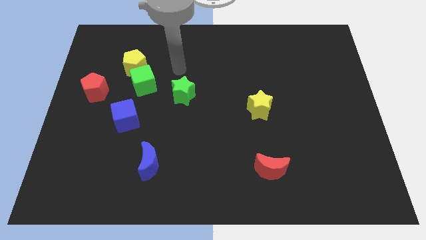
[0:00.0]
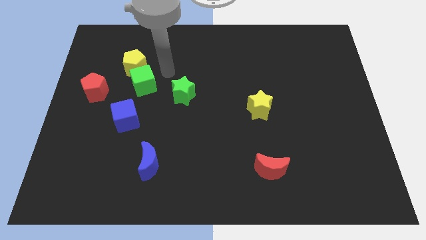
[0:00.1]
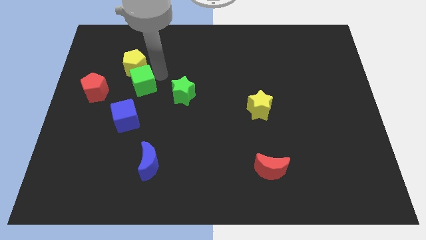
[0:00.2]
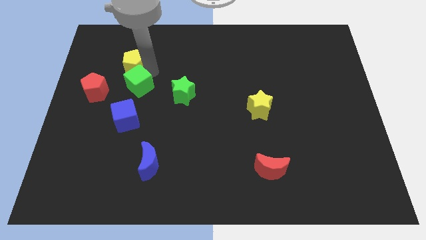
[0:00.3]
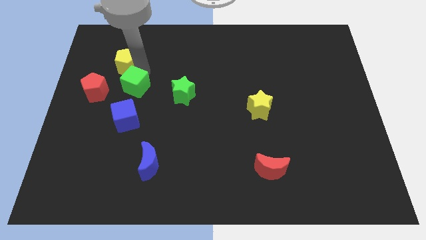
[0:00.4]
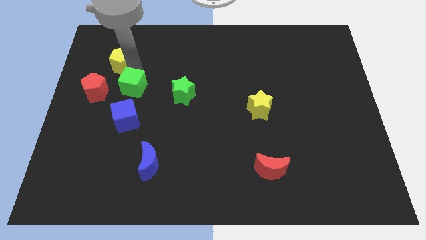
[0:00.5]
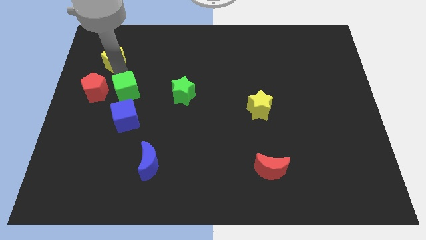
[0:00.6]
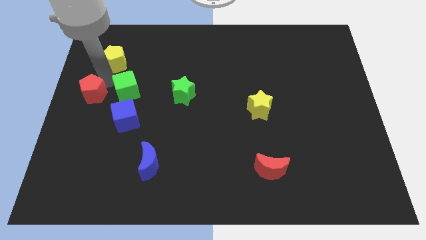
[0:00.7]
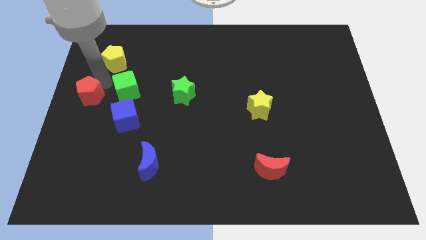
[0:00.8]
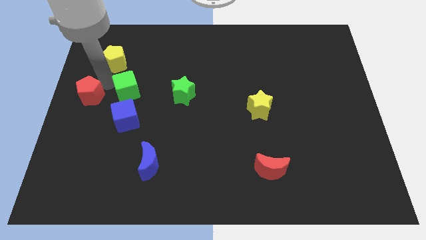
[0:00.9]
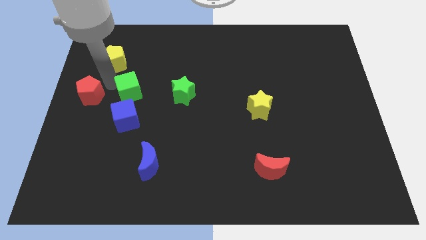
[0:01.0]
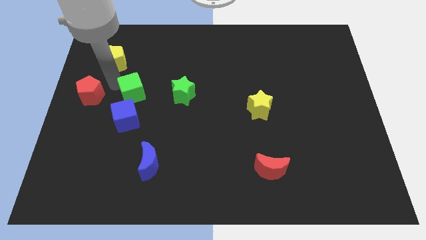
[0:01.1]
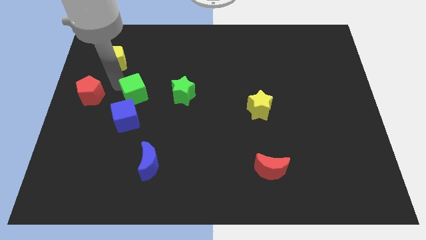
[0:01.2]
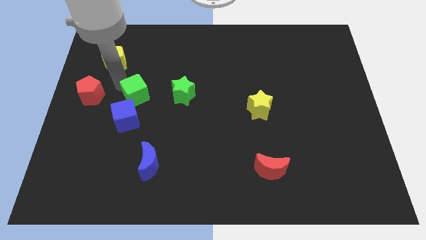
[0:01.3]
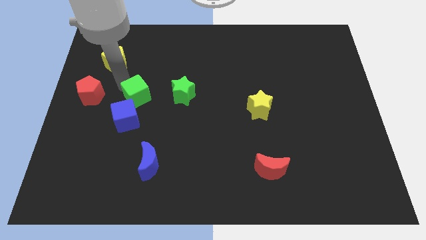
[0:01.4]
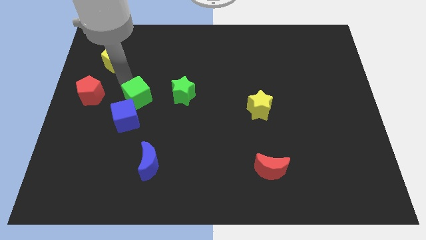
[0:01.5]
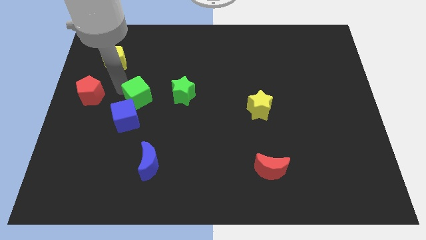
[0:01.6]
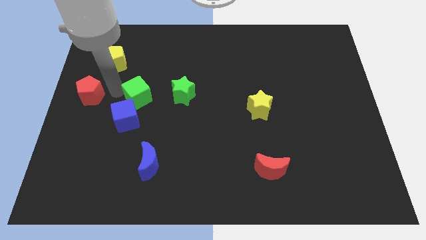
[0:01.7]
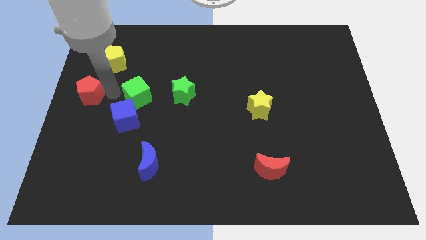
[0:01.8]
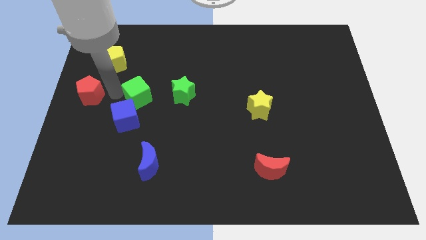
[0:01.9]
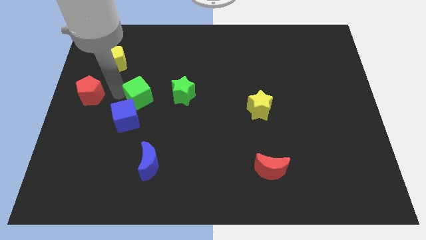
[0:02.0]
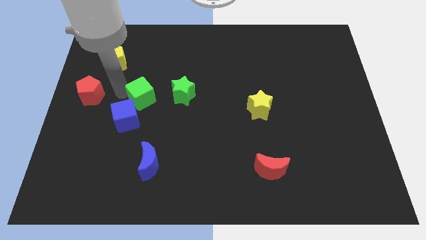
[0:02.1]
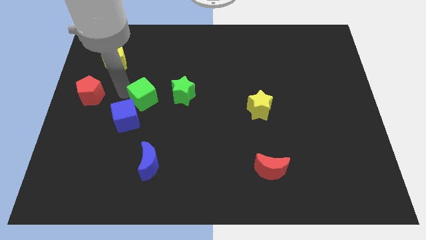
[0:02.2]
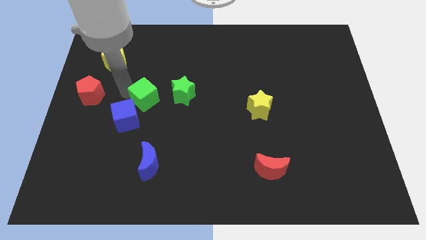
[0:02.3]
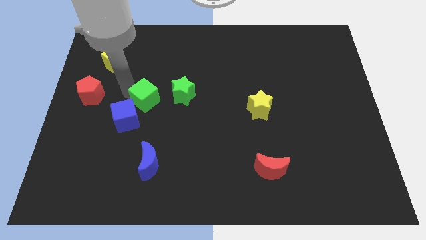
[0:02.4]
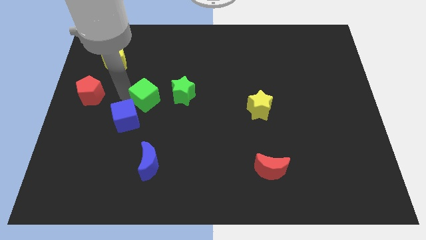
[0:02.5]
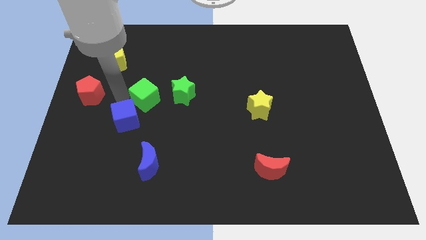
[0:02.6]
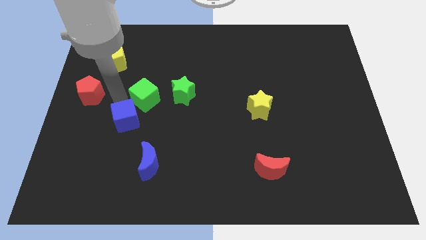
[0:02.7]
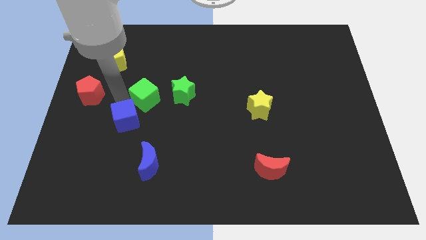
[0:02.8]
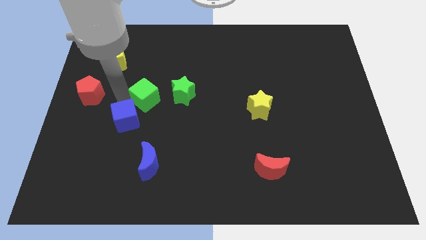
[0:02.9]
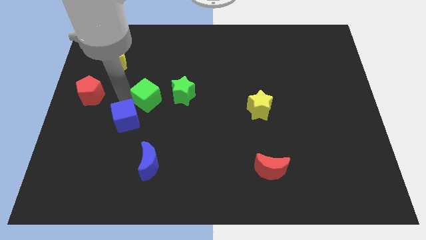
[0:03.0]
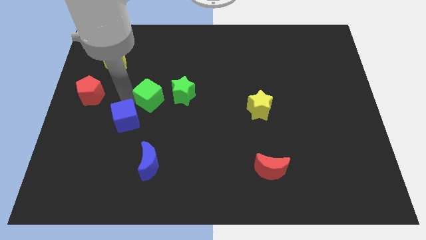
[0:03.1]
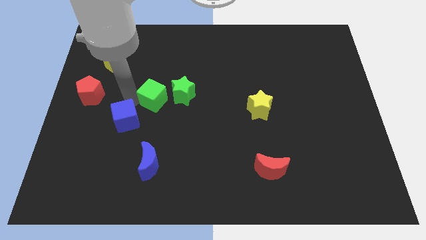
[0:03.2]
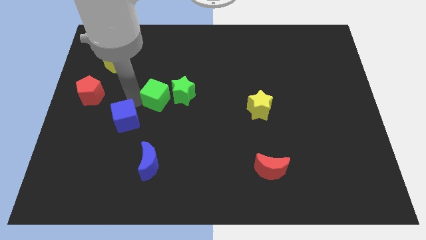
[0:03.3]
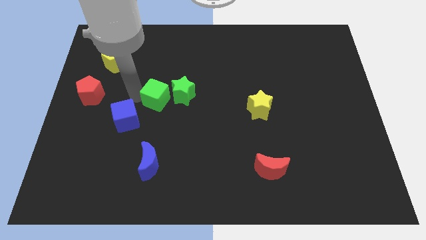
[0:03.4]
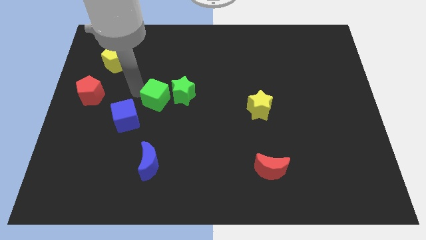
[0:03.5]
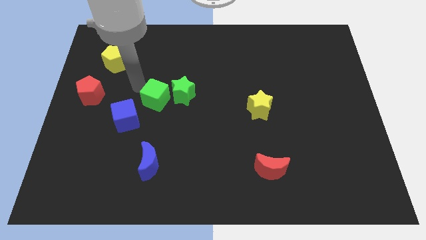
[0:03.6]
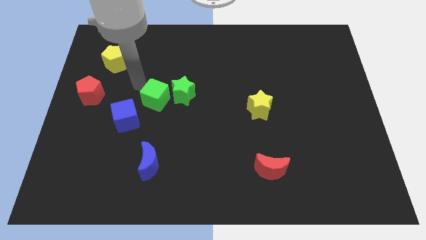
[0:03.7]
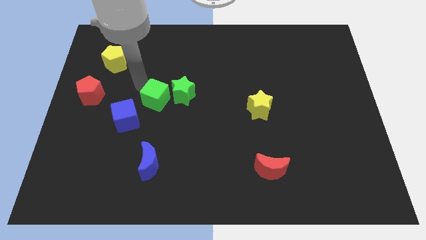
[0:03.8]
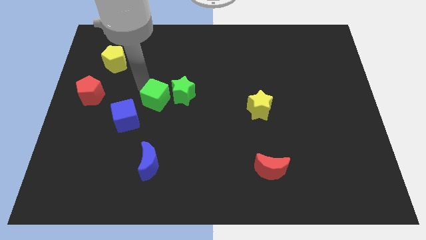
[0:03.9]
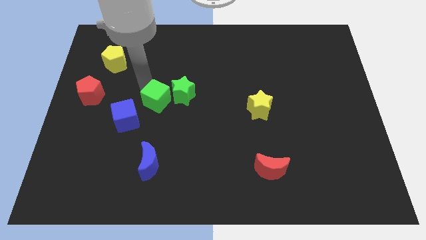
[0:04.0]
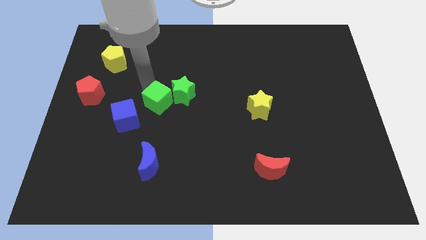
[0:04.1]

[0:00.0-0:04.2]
slightly slide the green cube down and to the right

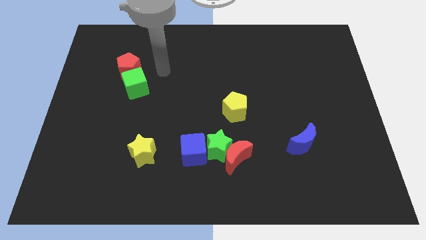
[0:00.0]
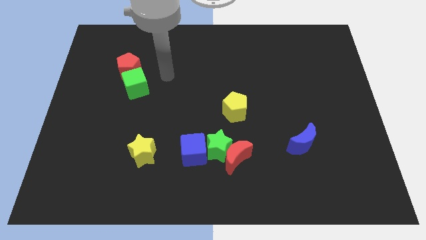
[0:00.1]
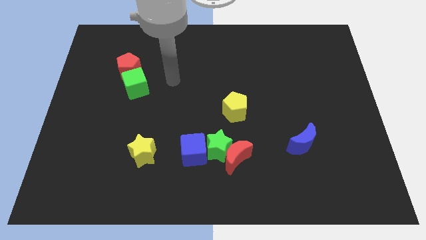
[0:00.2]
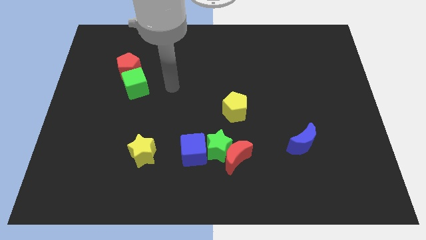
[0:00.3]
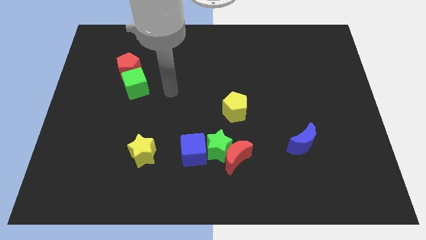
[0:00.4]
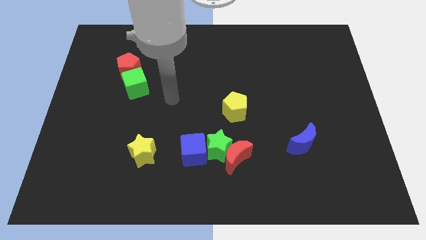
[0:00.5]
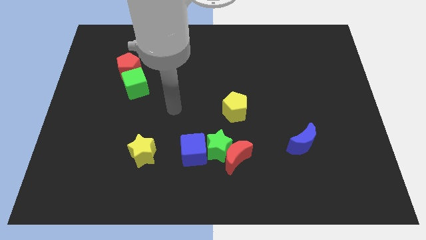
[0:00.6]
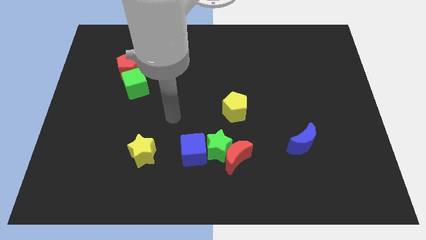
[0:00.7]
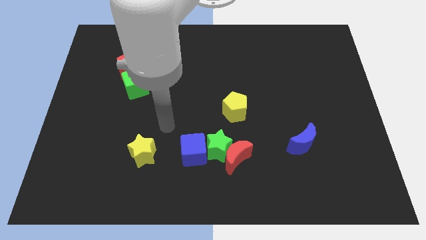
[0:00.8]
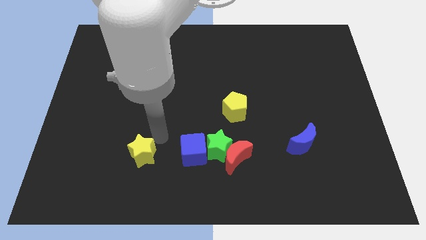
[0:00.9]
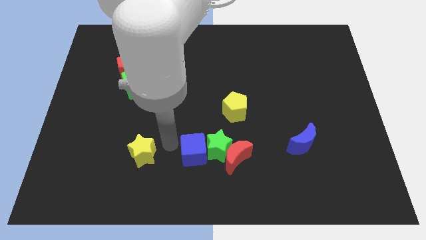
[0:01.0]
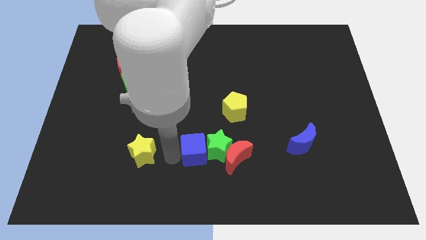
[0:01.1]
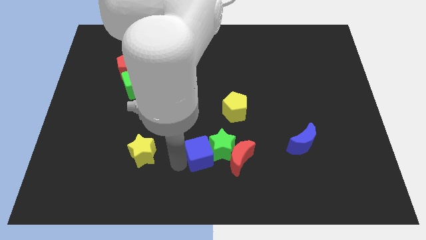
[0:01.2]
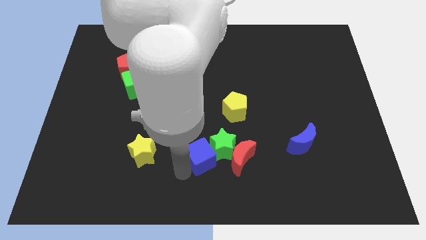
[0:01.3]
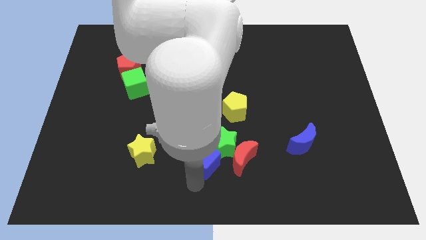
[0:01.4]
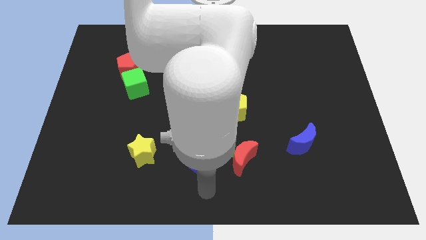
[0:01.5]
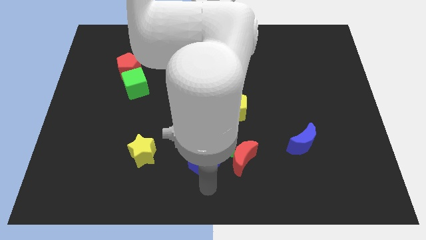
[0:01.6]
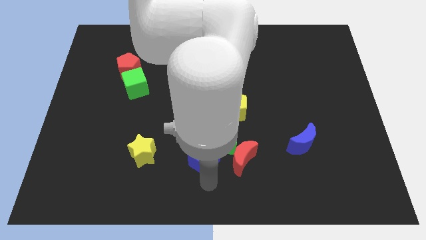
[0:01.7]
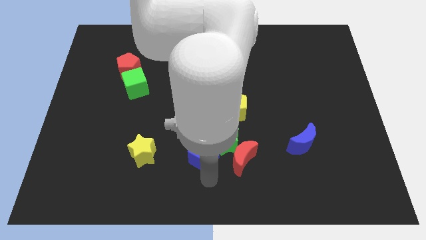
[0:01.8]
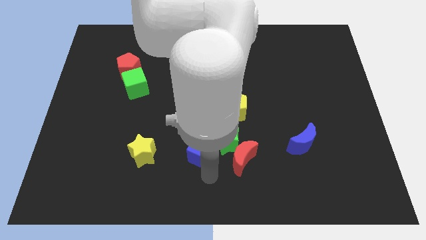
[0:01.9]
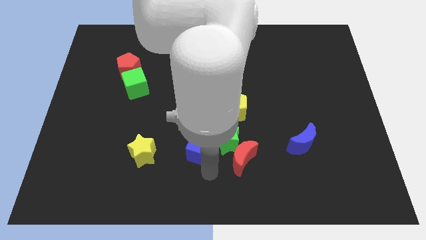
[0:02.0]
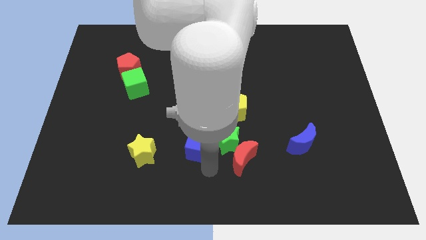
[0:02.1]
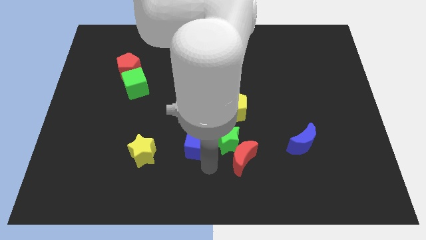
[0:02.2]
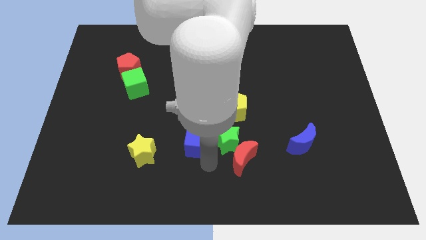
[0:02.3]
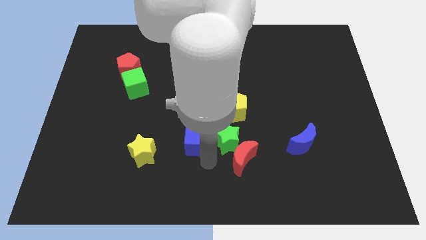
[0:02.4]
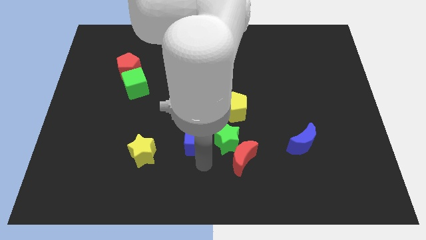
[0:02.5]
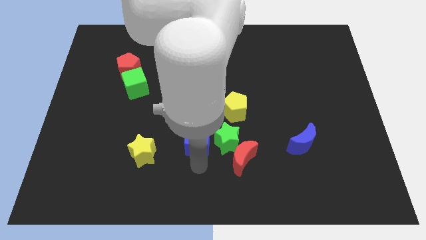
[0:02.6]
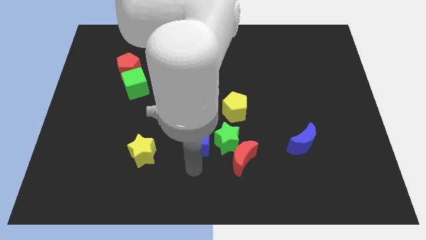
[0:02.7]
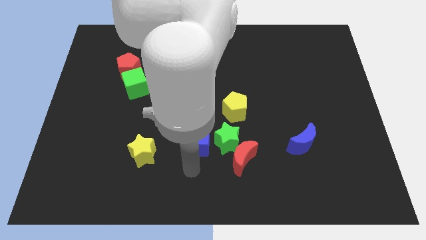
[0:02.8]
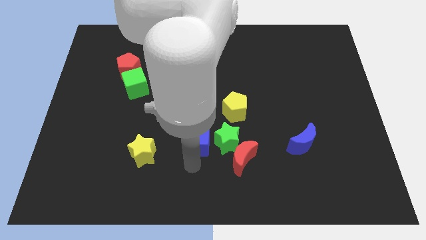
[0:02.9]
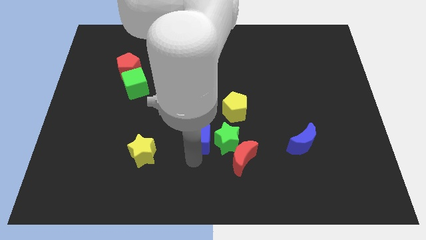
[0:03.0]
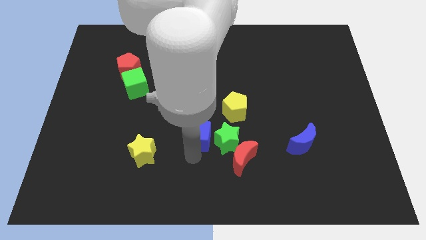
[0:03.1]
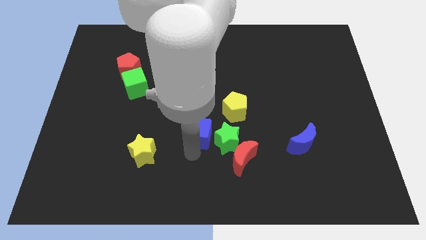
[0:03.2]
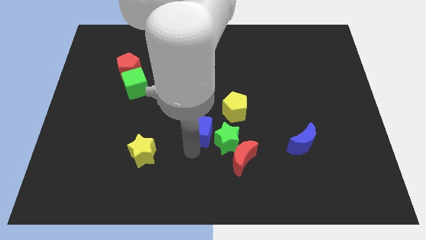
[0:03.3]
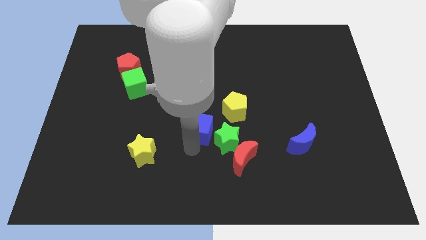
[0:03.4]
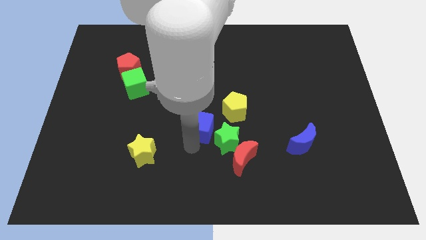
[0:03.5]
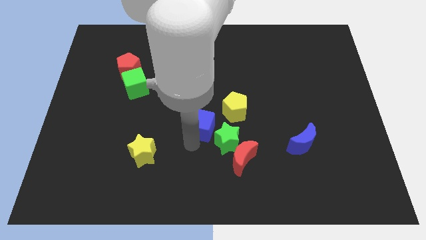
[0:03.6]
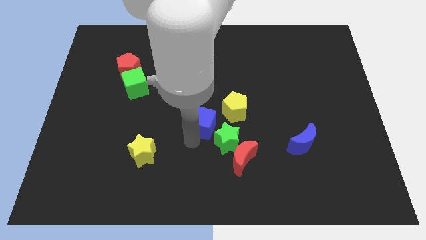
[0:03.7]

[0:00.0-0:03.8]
move the blue cube slightly up

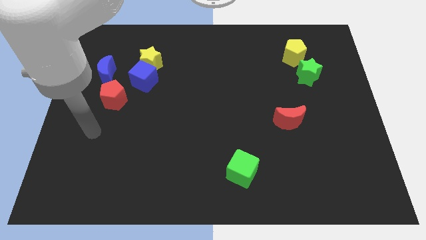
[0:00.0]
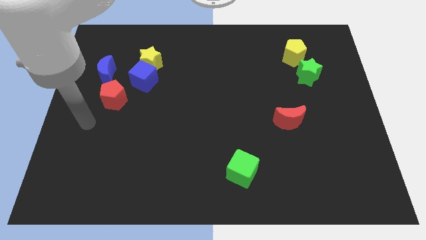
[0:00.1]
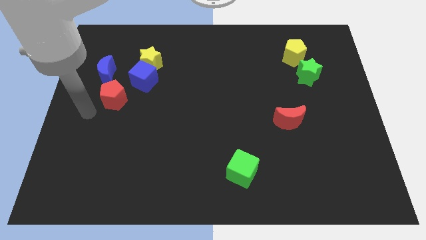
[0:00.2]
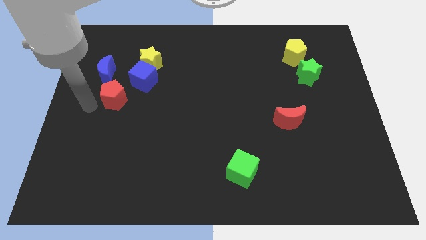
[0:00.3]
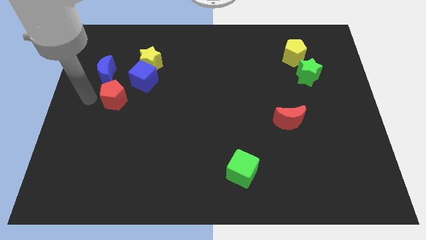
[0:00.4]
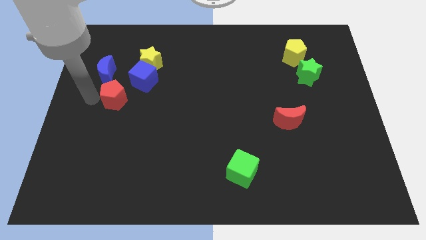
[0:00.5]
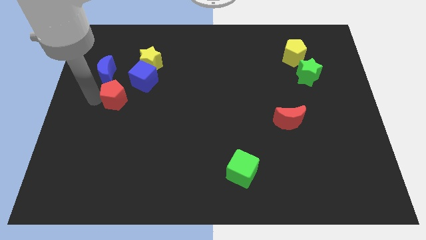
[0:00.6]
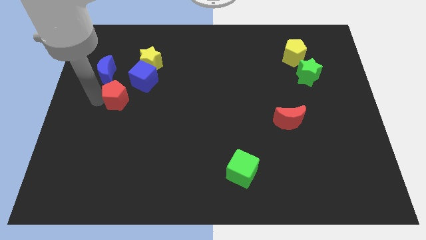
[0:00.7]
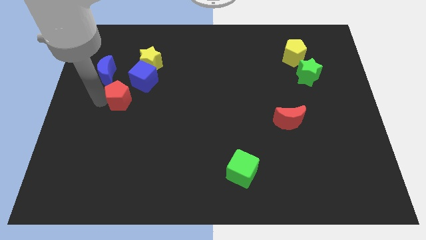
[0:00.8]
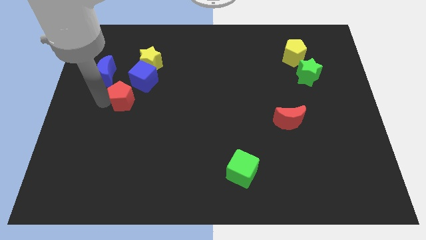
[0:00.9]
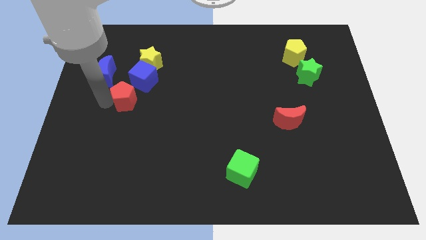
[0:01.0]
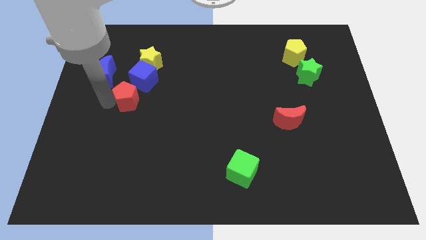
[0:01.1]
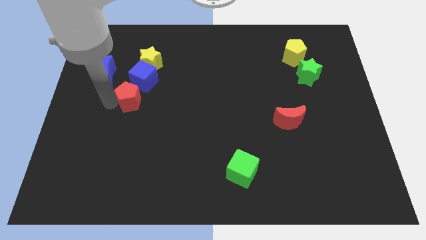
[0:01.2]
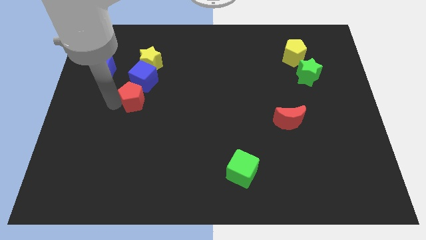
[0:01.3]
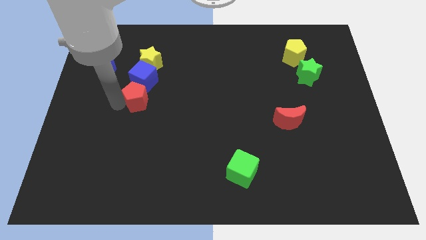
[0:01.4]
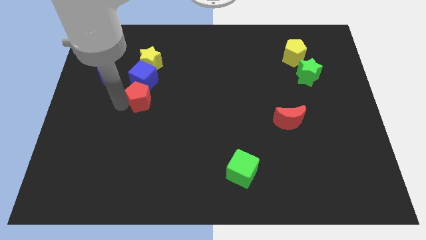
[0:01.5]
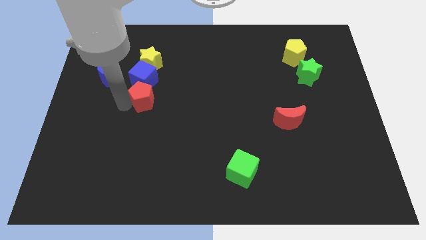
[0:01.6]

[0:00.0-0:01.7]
slide the red pentagon to the right slightly
